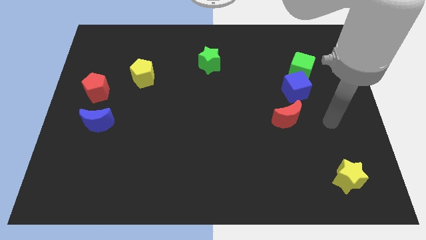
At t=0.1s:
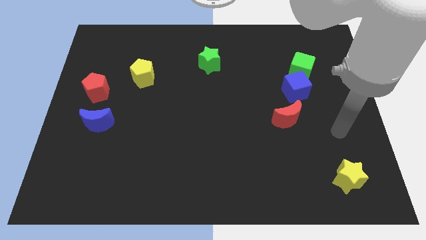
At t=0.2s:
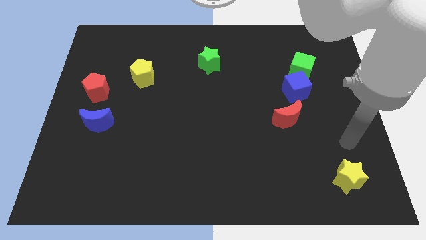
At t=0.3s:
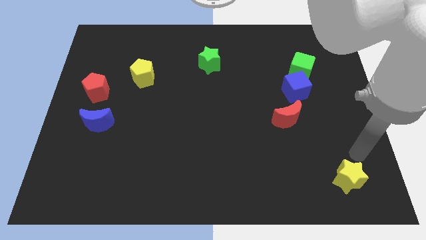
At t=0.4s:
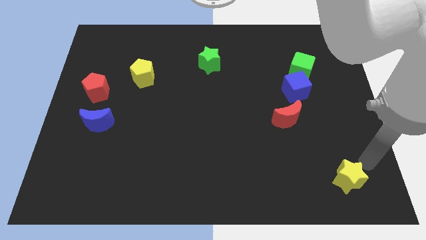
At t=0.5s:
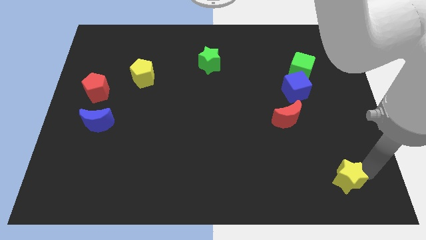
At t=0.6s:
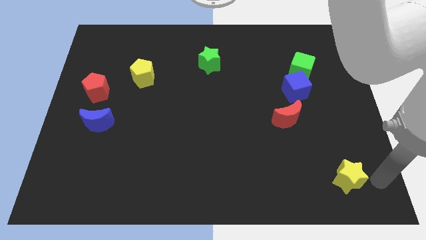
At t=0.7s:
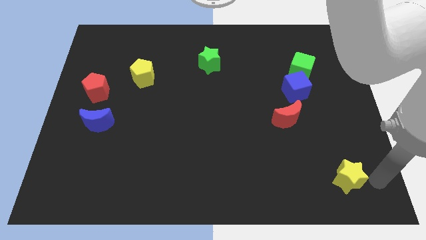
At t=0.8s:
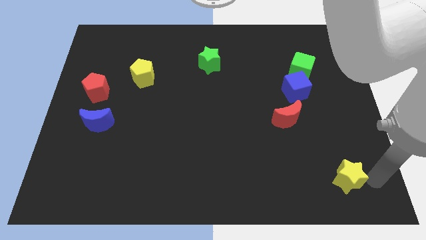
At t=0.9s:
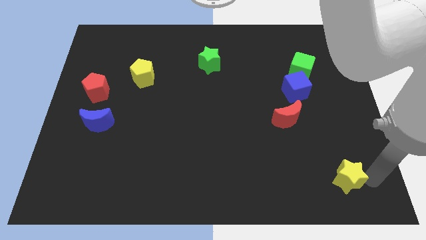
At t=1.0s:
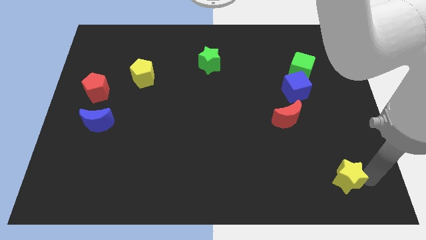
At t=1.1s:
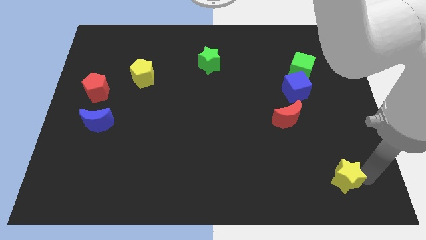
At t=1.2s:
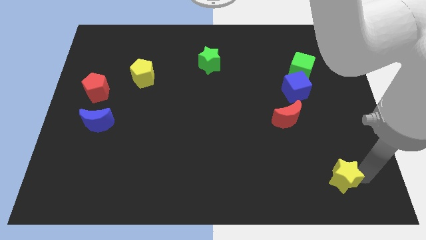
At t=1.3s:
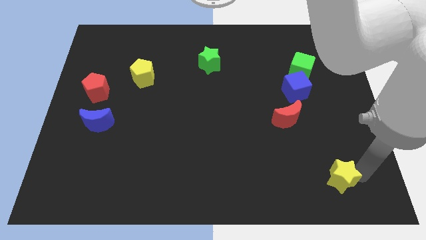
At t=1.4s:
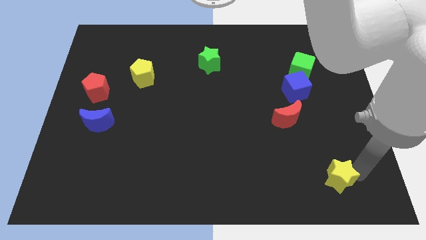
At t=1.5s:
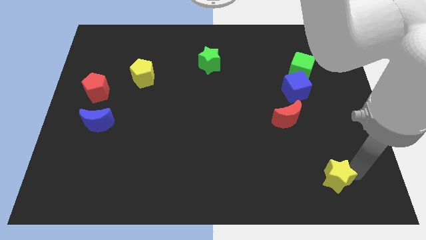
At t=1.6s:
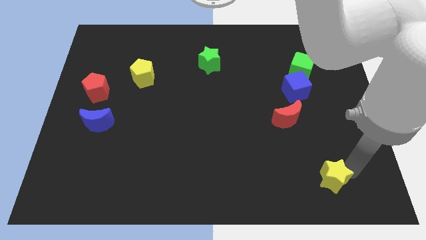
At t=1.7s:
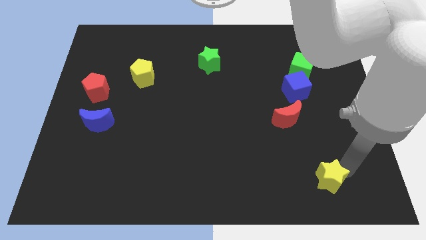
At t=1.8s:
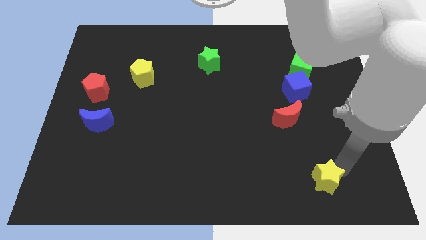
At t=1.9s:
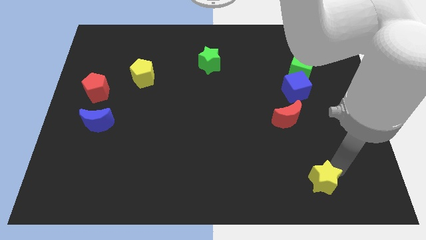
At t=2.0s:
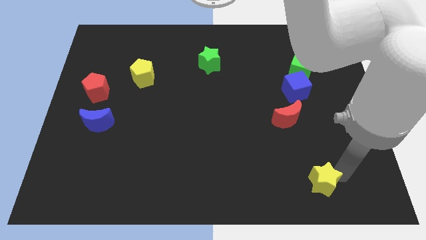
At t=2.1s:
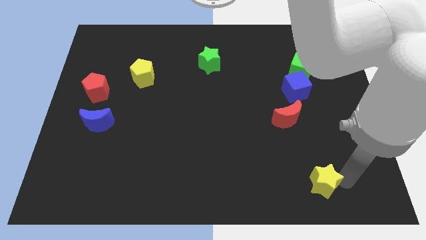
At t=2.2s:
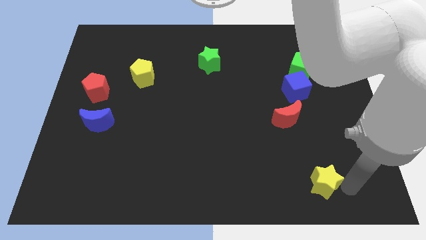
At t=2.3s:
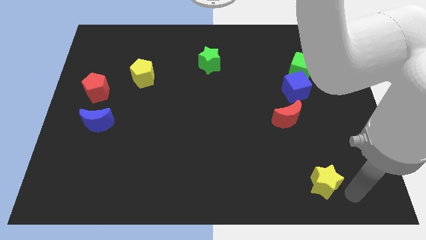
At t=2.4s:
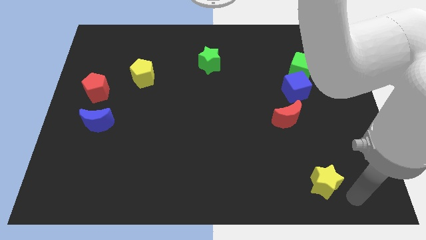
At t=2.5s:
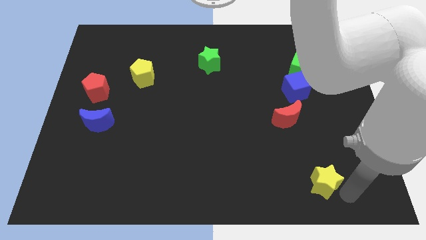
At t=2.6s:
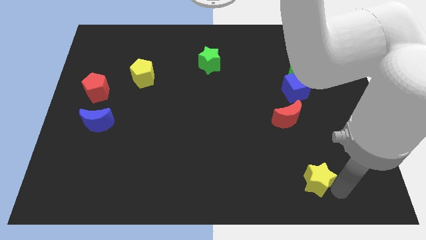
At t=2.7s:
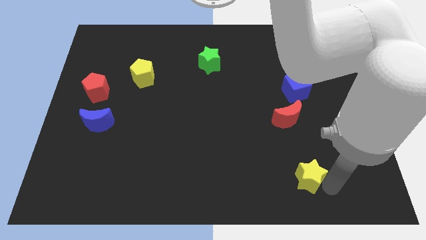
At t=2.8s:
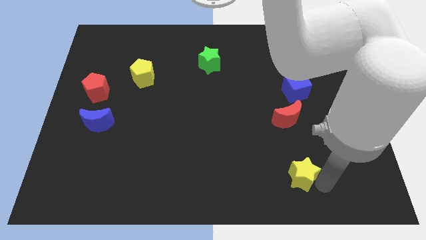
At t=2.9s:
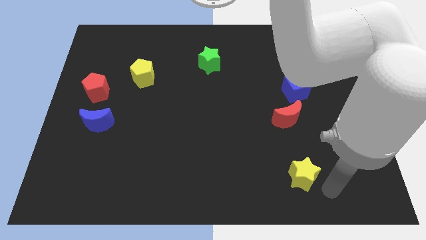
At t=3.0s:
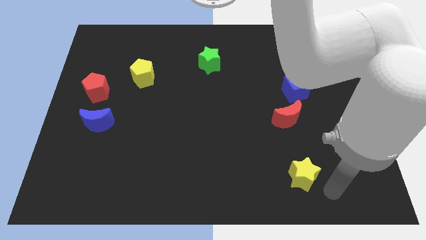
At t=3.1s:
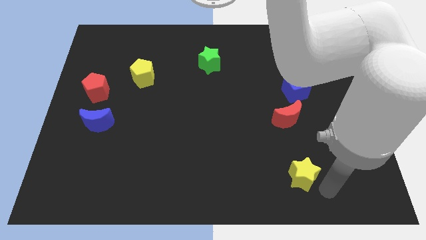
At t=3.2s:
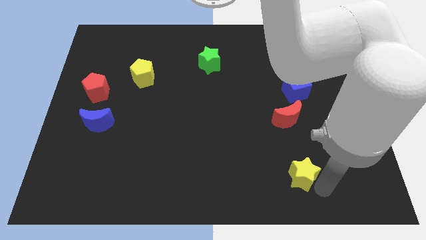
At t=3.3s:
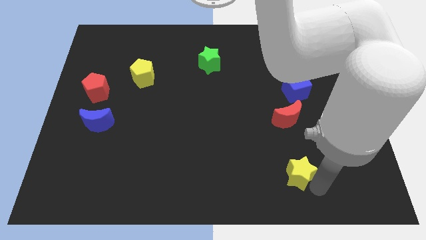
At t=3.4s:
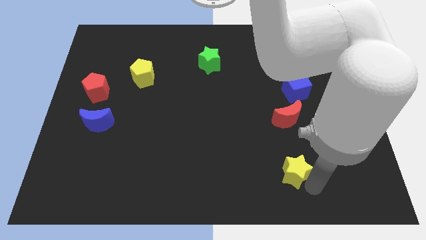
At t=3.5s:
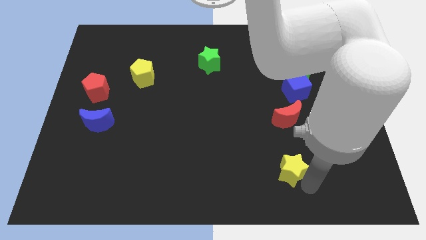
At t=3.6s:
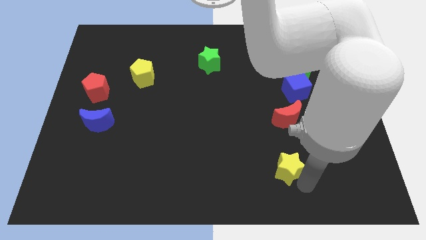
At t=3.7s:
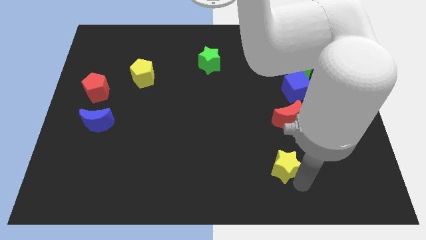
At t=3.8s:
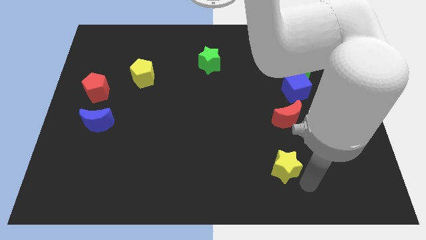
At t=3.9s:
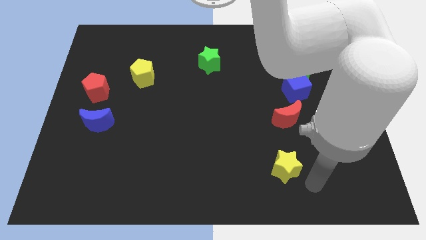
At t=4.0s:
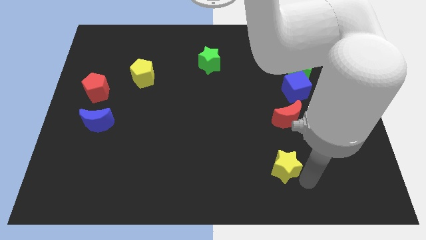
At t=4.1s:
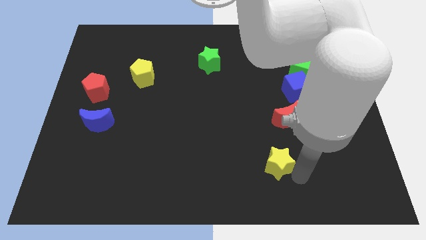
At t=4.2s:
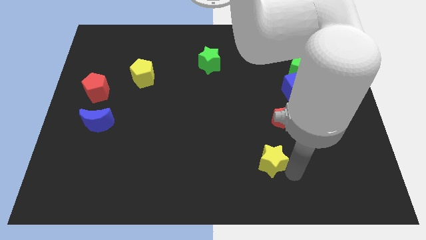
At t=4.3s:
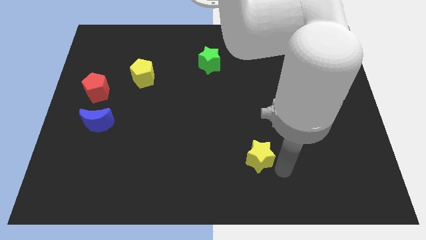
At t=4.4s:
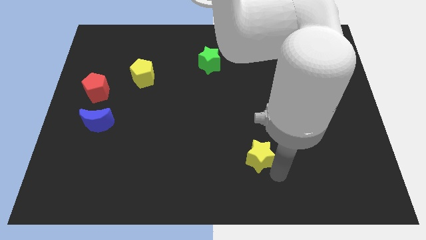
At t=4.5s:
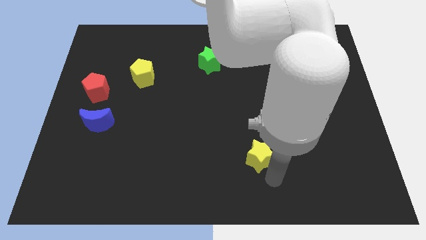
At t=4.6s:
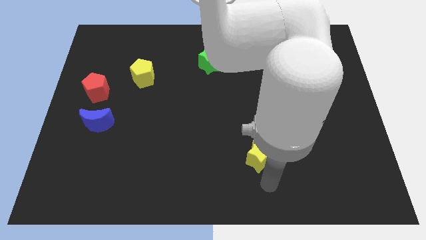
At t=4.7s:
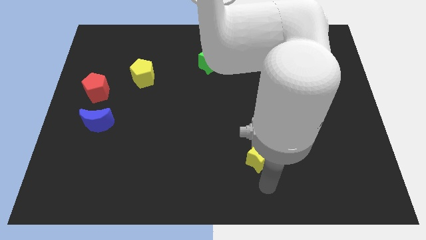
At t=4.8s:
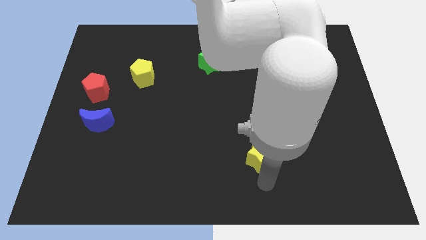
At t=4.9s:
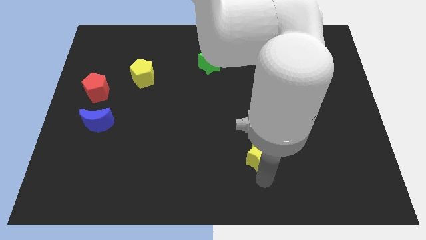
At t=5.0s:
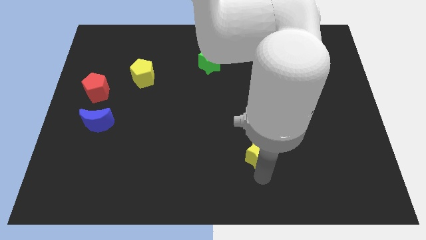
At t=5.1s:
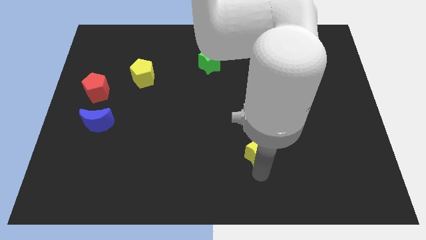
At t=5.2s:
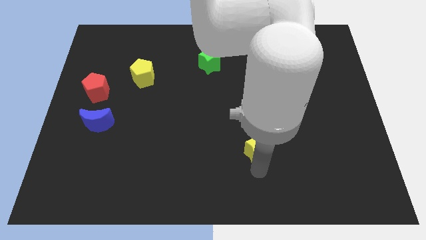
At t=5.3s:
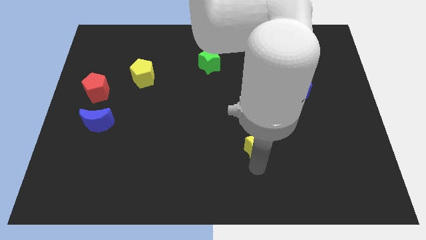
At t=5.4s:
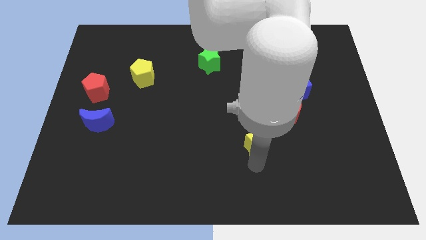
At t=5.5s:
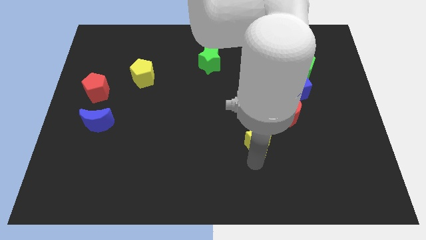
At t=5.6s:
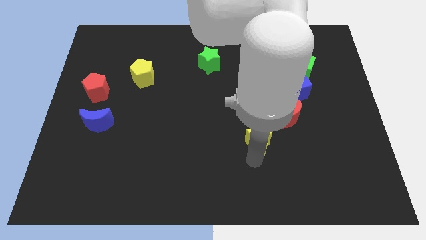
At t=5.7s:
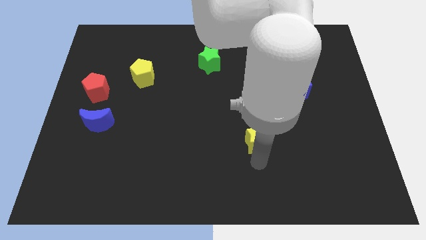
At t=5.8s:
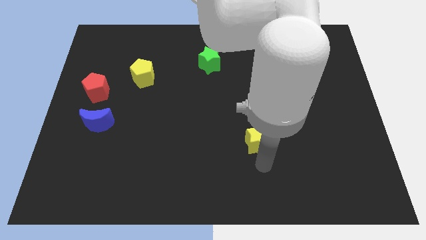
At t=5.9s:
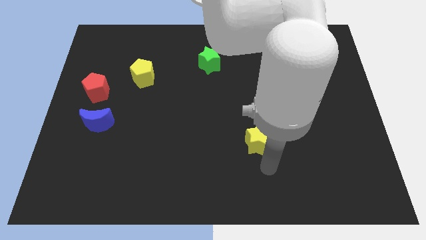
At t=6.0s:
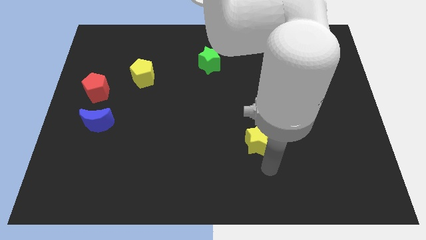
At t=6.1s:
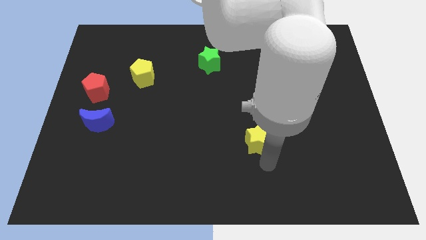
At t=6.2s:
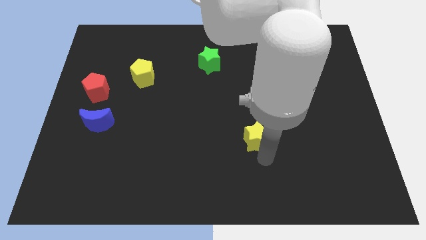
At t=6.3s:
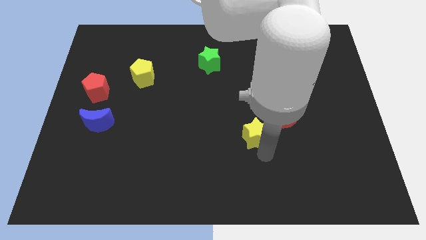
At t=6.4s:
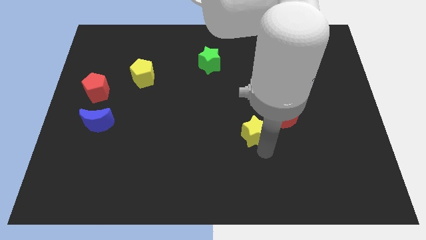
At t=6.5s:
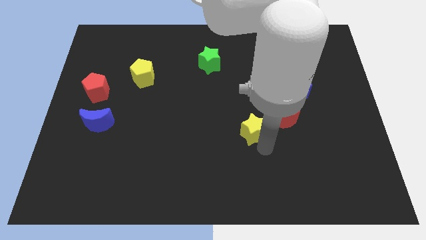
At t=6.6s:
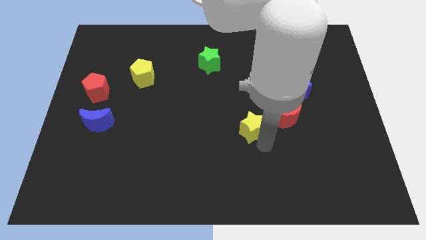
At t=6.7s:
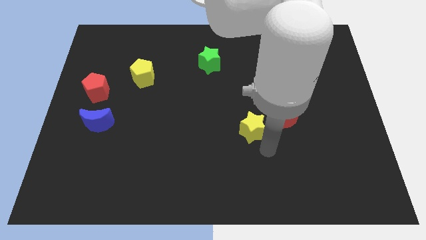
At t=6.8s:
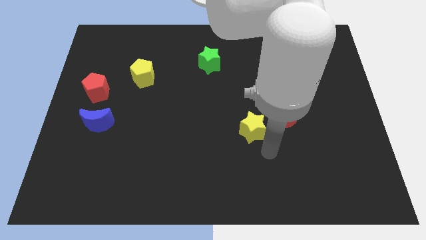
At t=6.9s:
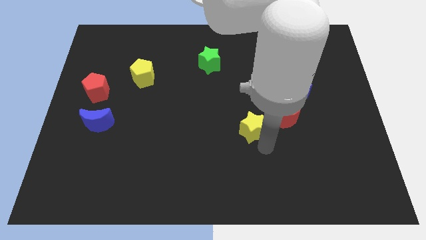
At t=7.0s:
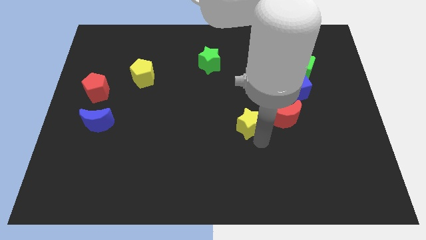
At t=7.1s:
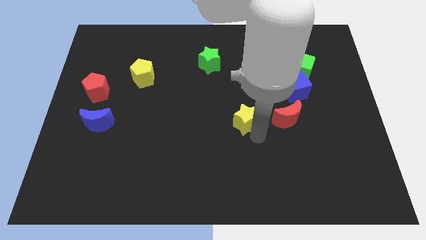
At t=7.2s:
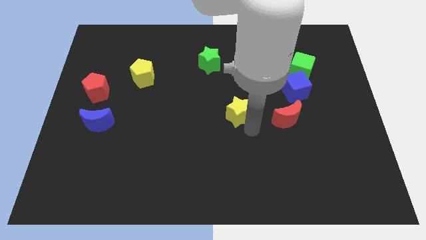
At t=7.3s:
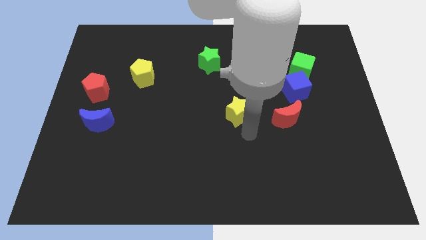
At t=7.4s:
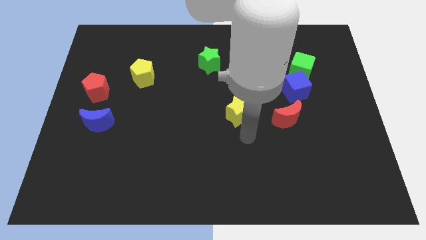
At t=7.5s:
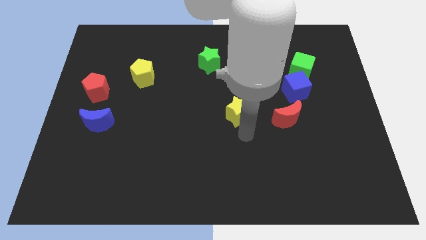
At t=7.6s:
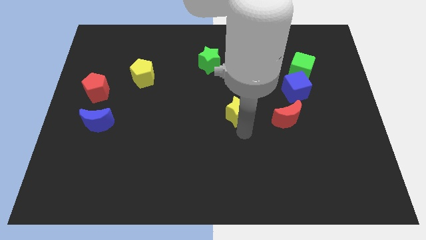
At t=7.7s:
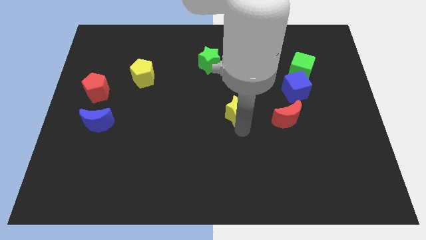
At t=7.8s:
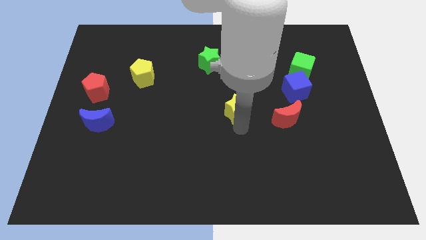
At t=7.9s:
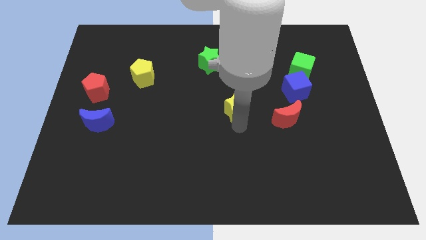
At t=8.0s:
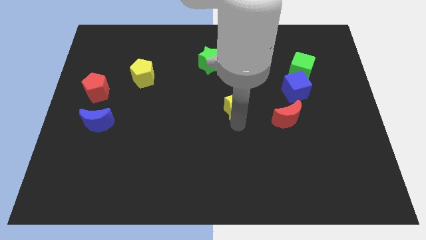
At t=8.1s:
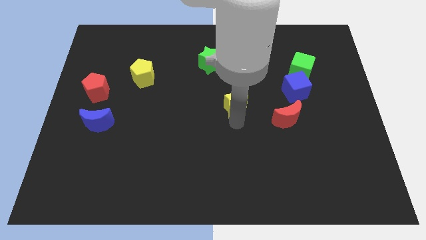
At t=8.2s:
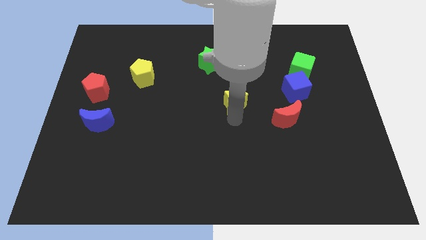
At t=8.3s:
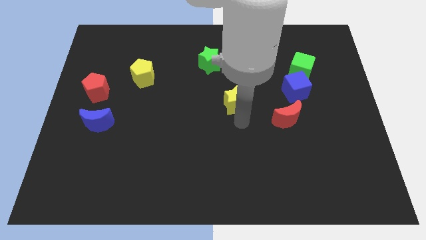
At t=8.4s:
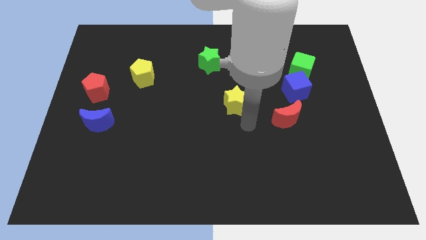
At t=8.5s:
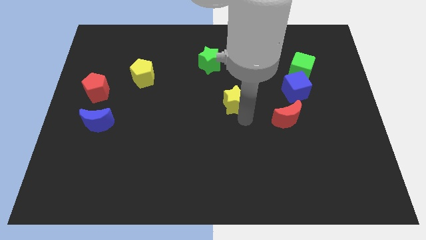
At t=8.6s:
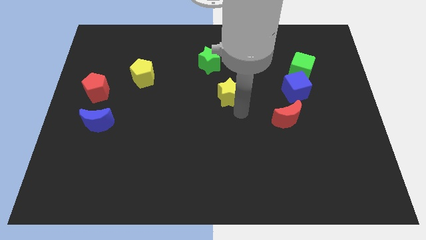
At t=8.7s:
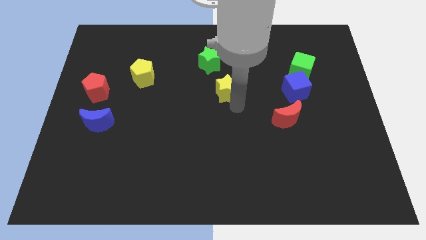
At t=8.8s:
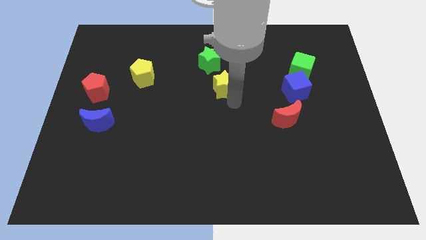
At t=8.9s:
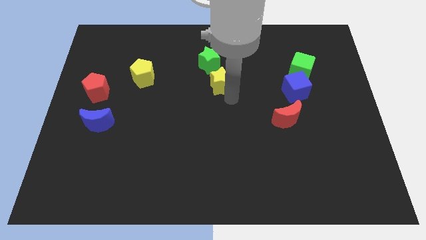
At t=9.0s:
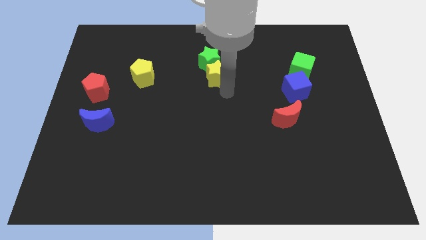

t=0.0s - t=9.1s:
put the yellow star next to the green star
